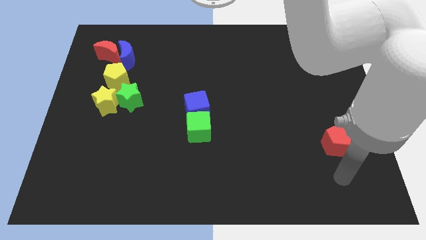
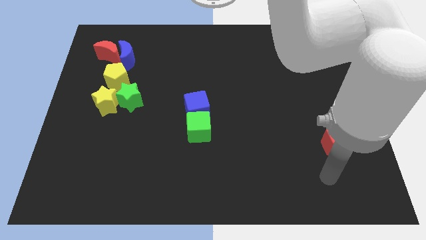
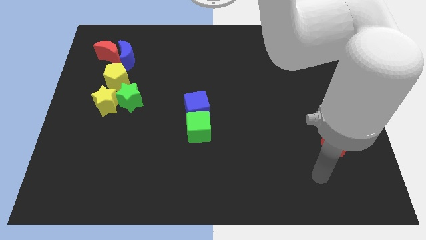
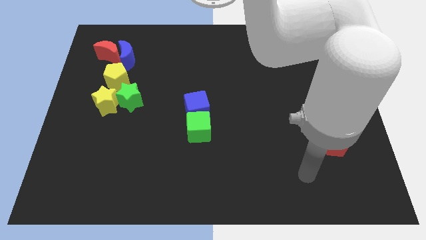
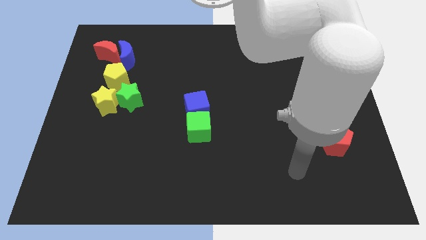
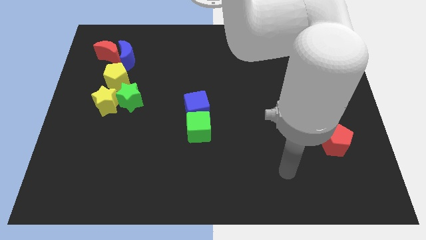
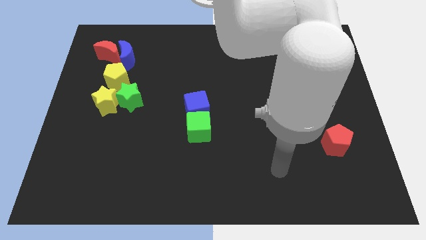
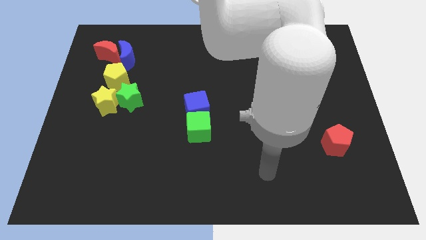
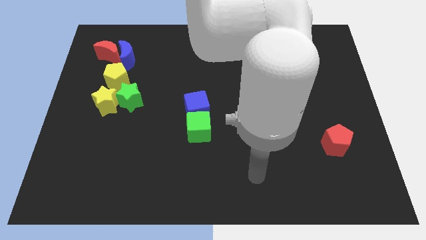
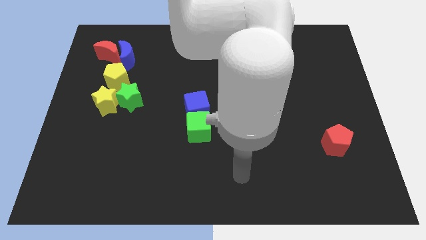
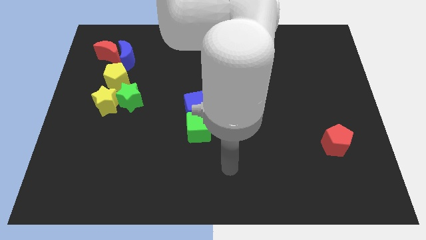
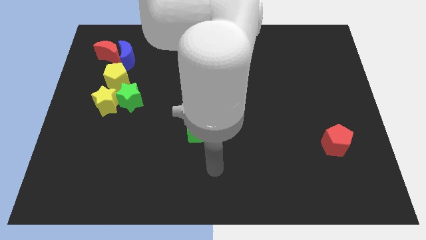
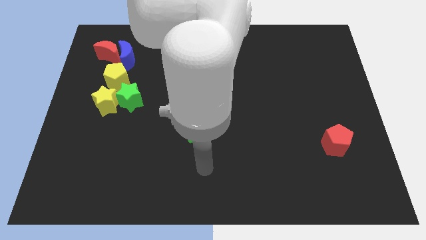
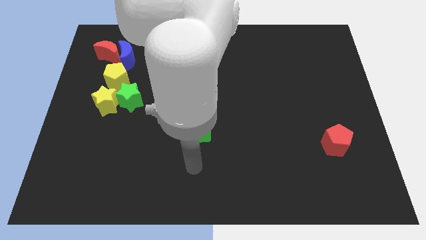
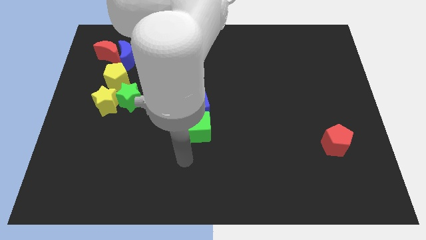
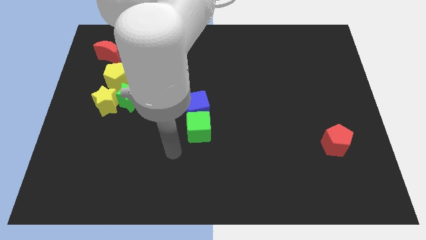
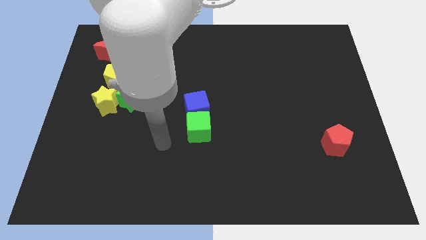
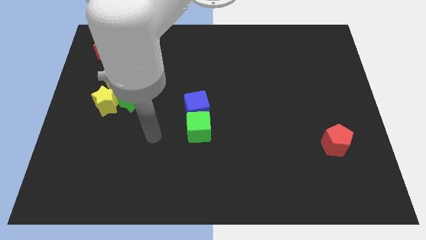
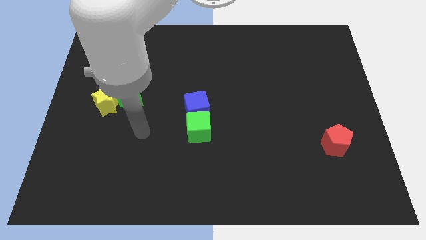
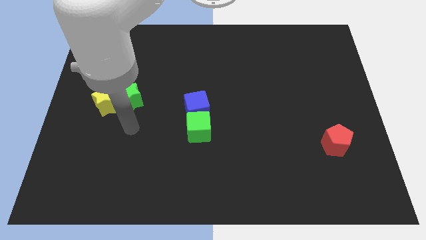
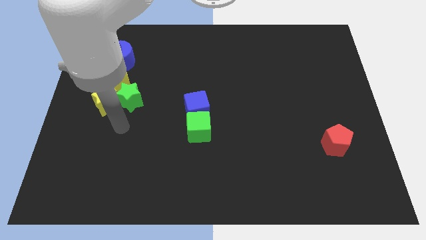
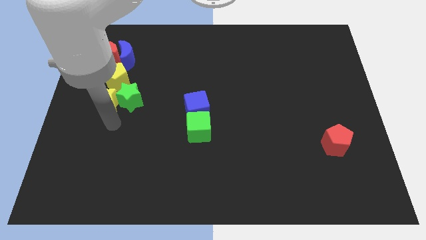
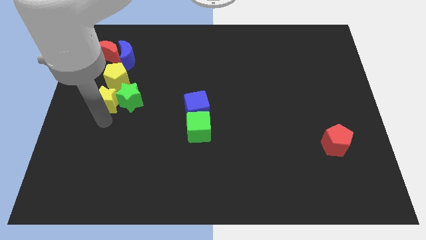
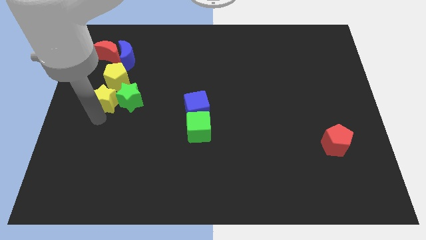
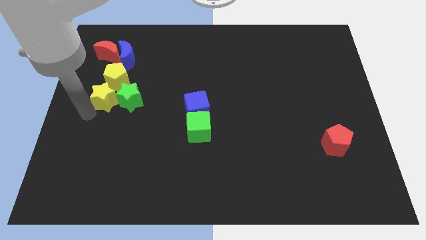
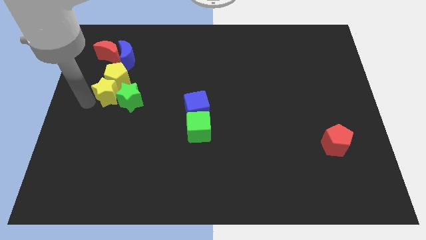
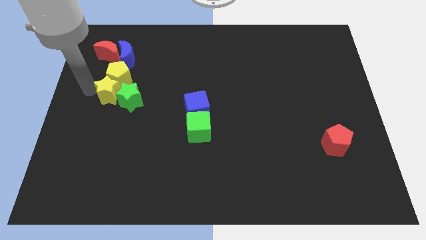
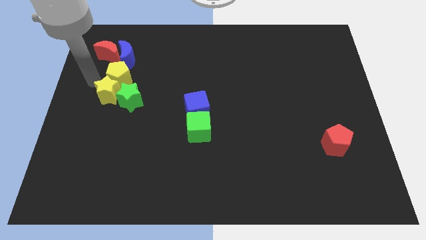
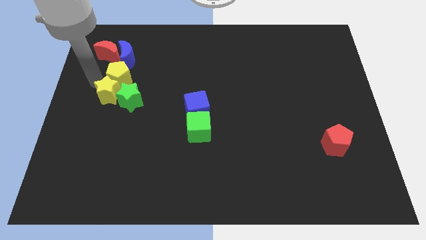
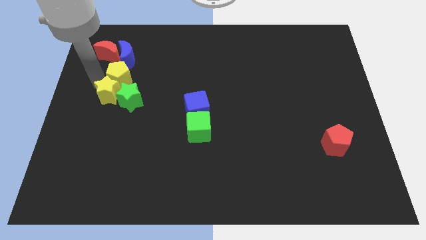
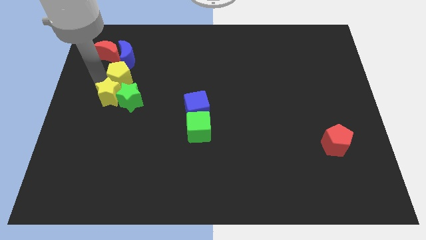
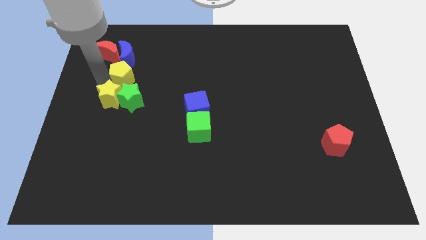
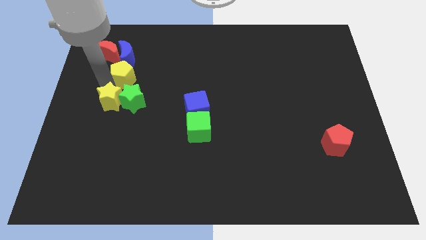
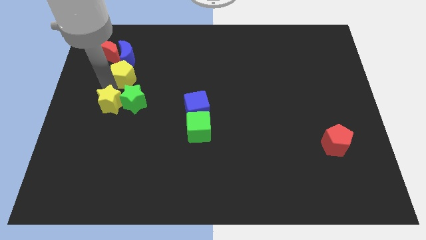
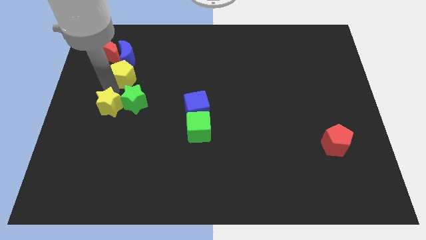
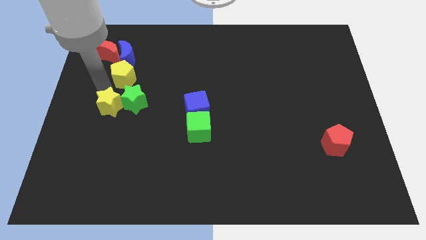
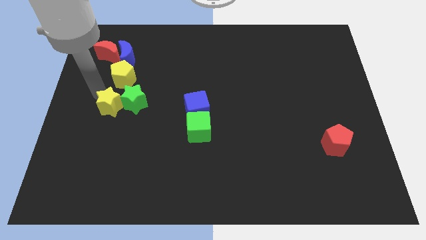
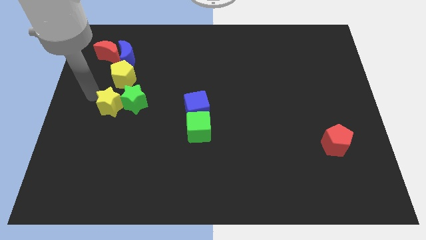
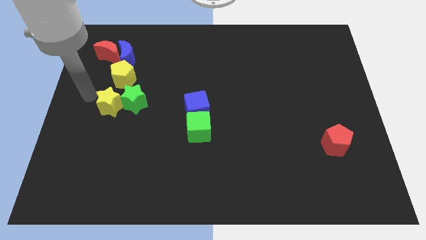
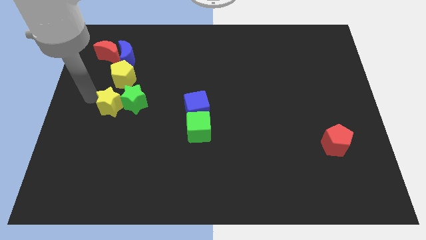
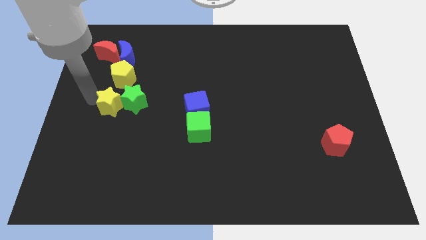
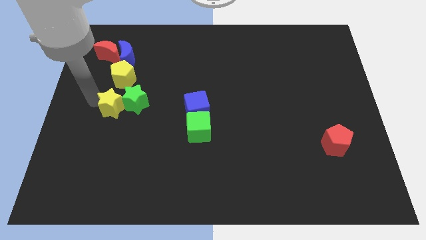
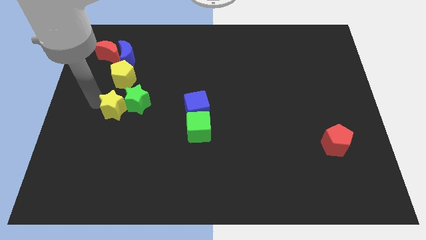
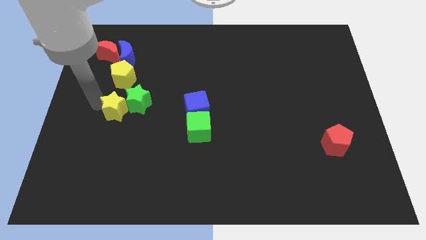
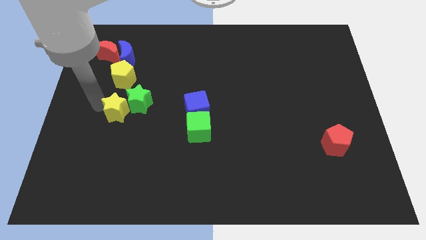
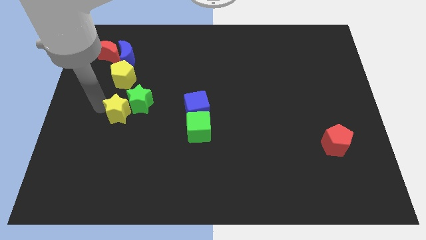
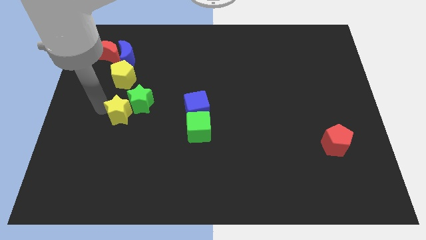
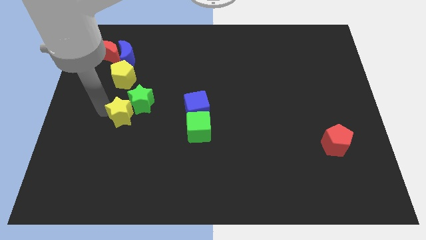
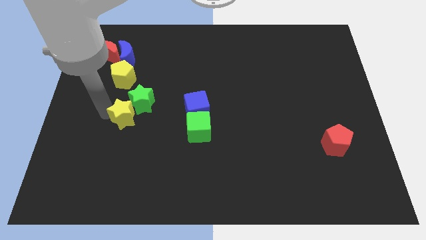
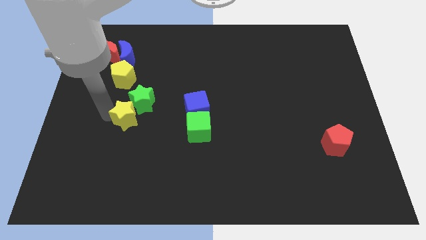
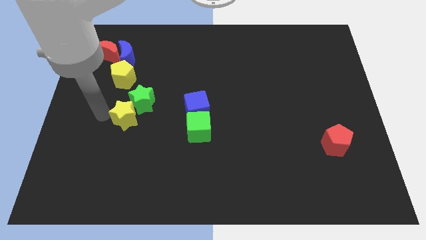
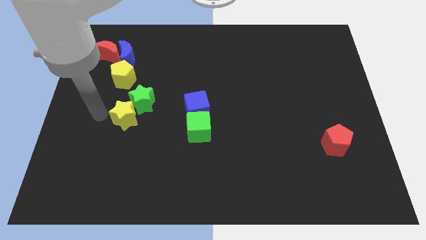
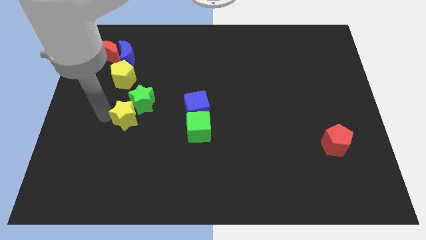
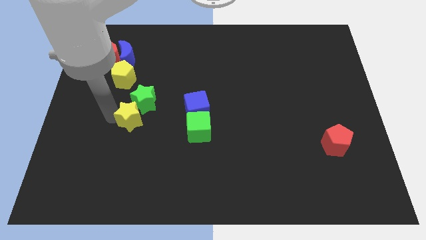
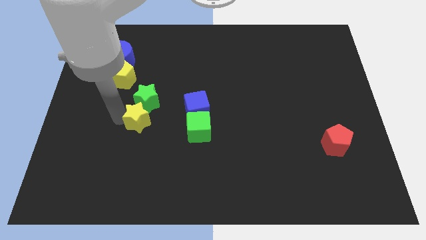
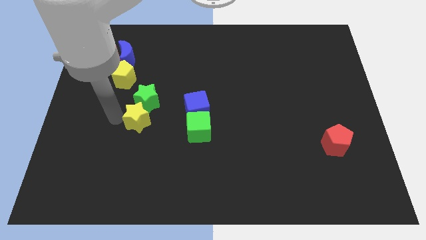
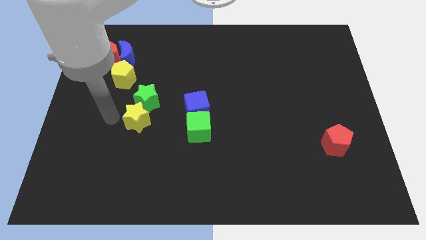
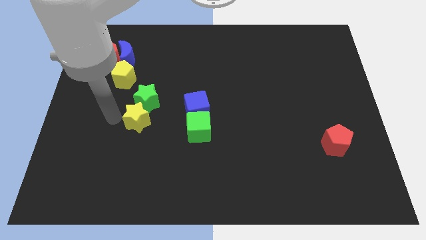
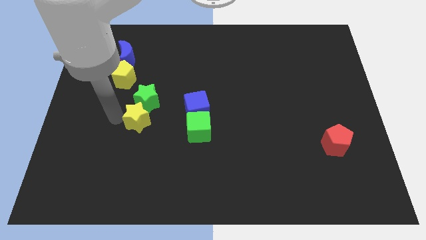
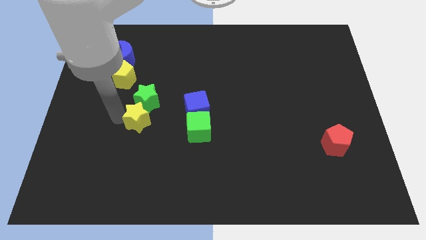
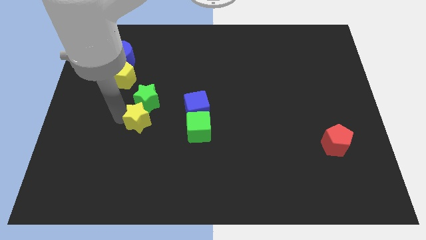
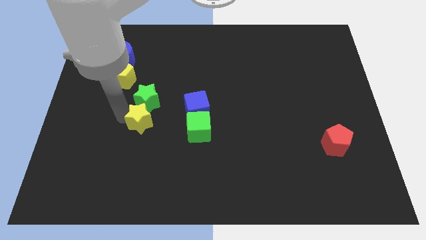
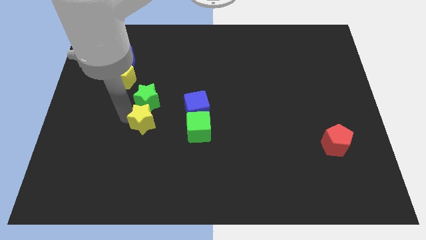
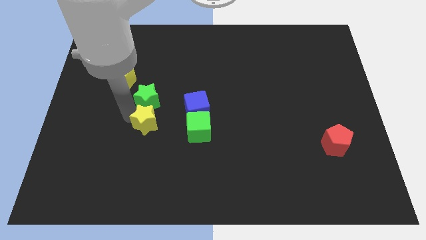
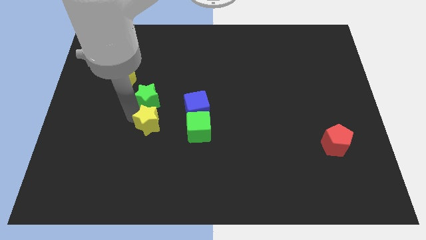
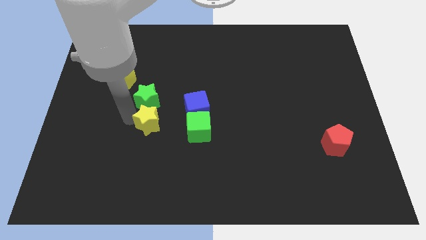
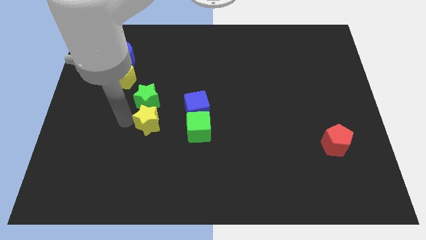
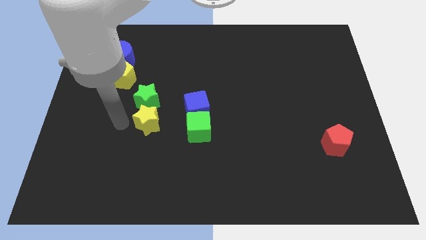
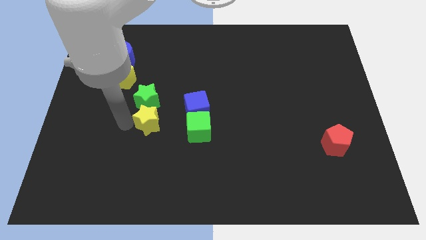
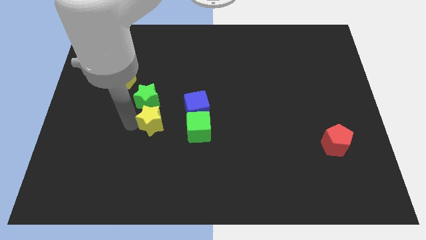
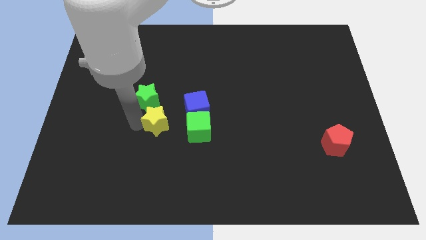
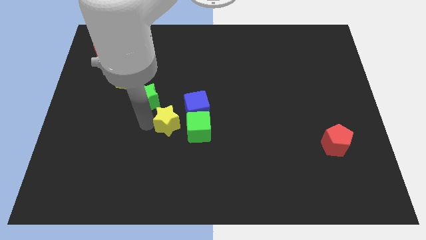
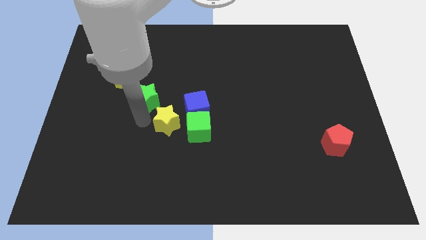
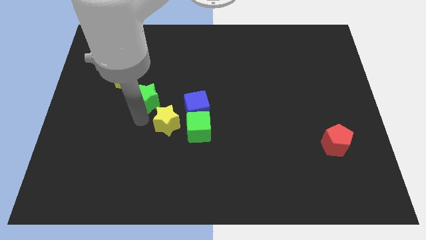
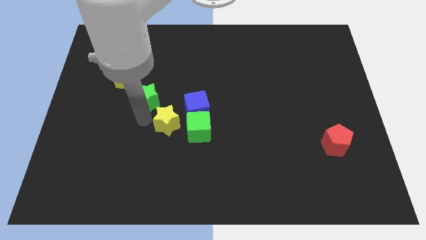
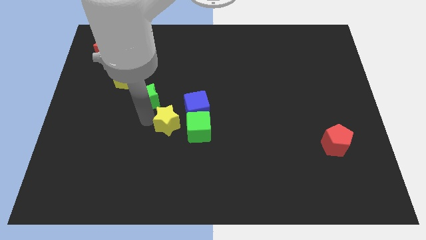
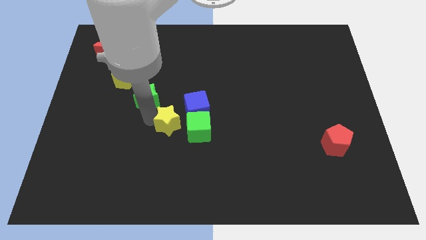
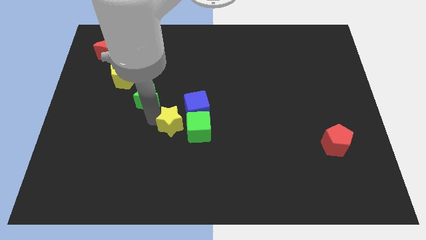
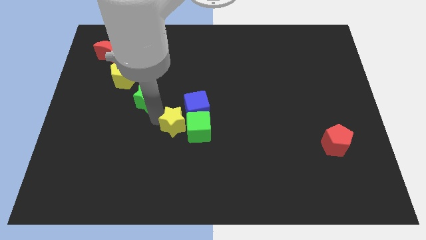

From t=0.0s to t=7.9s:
slide the yellow star towards the green cube
